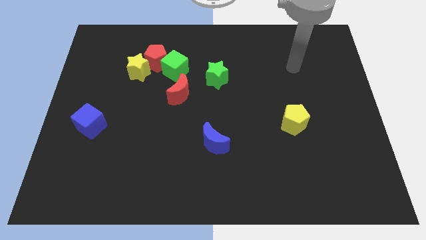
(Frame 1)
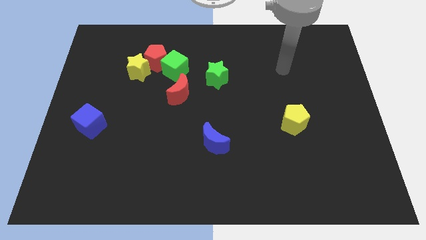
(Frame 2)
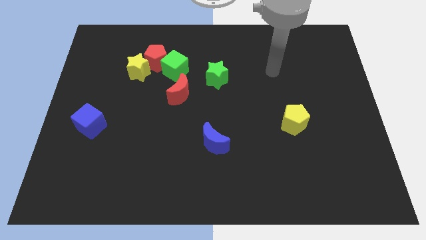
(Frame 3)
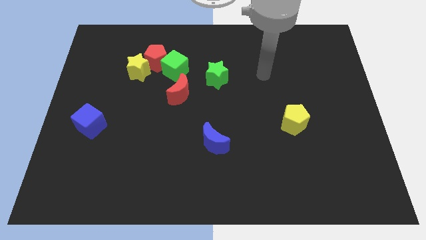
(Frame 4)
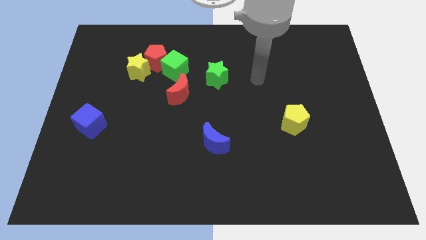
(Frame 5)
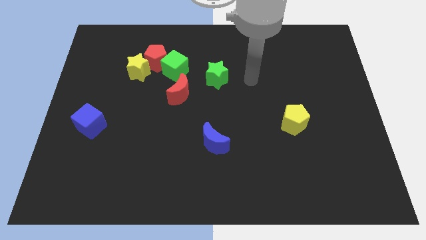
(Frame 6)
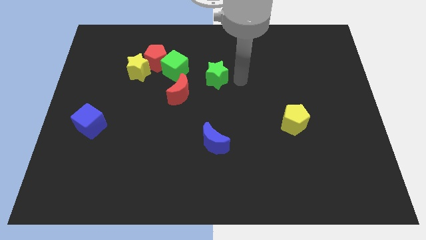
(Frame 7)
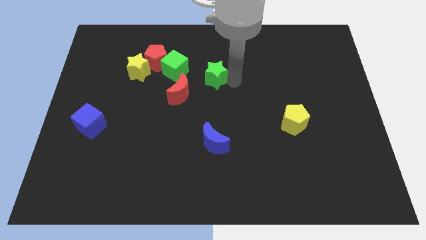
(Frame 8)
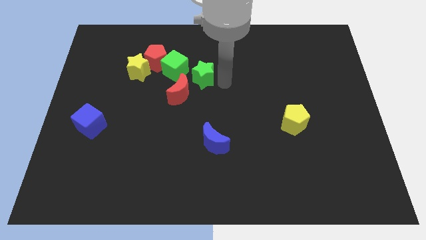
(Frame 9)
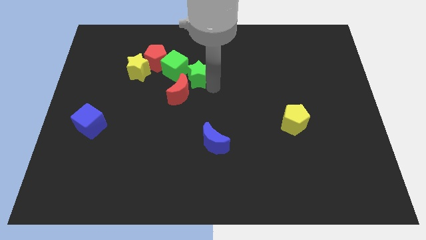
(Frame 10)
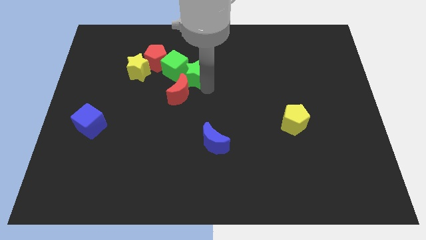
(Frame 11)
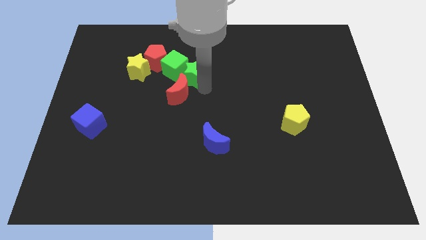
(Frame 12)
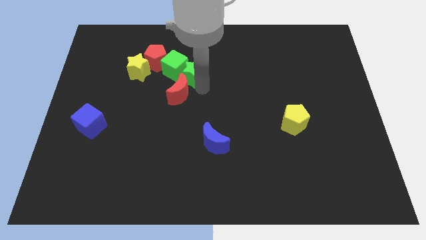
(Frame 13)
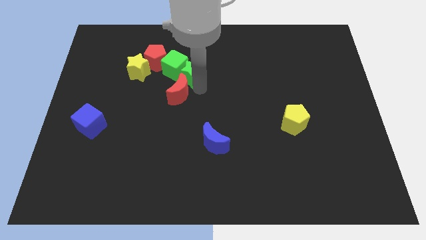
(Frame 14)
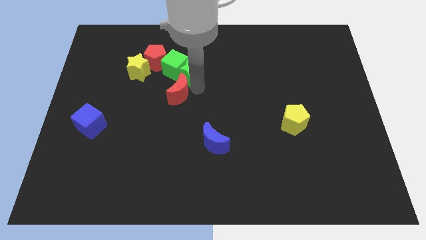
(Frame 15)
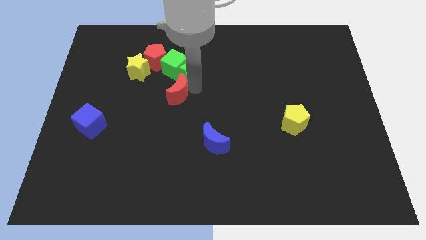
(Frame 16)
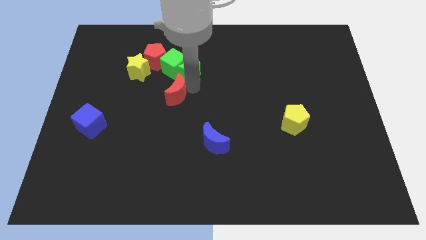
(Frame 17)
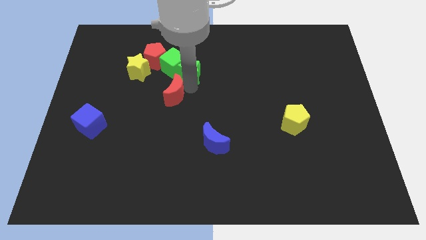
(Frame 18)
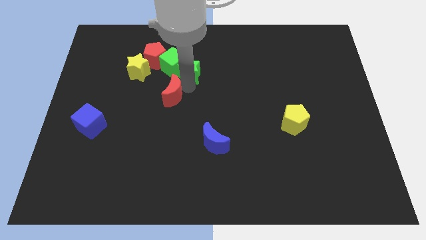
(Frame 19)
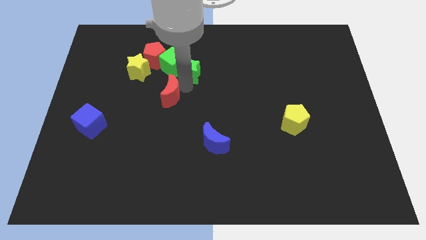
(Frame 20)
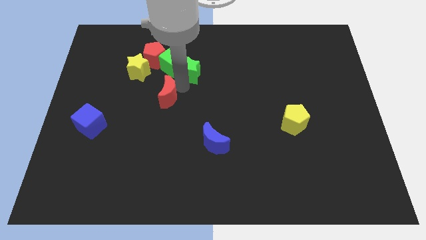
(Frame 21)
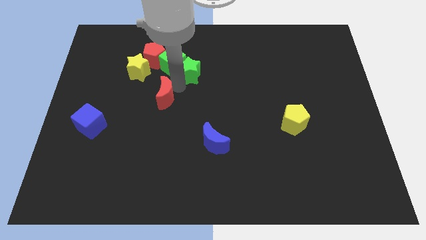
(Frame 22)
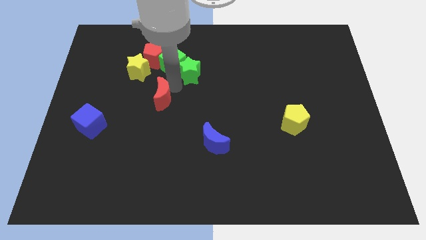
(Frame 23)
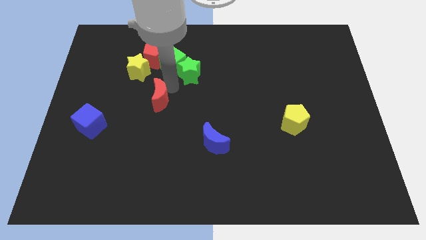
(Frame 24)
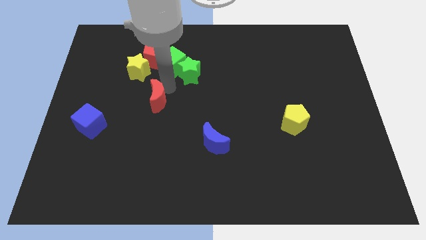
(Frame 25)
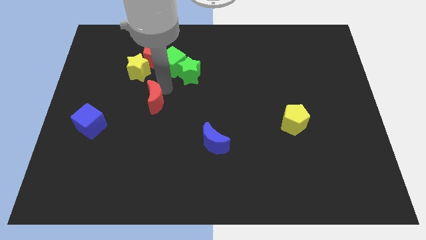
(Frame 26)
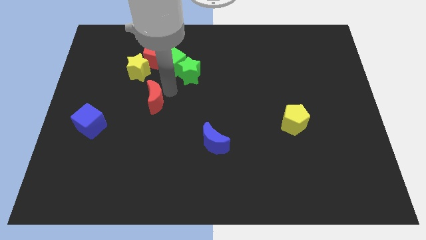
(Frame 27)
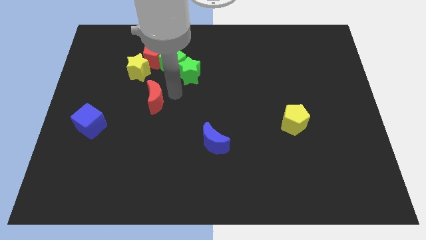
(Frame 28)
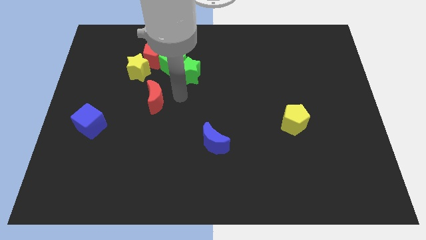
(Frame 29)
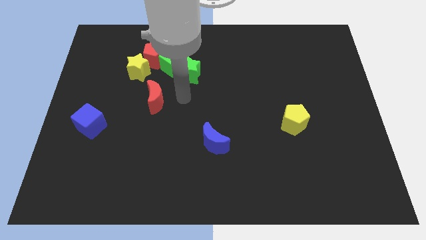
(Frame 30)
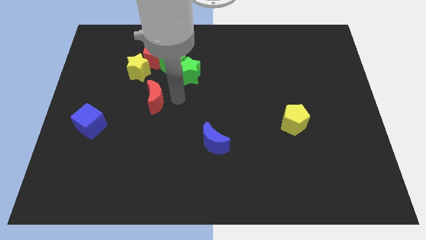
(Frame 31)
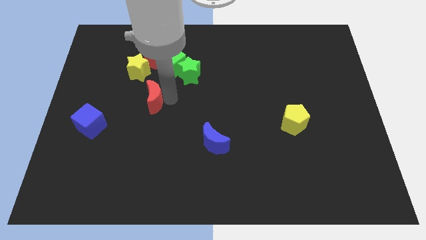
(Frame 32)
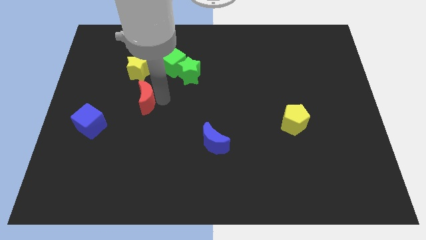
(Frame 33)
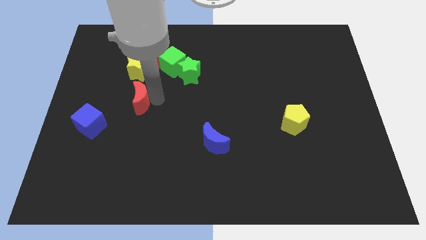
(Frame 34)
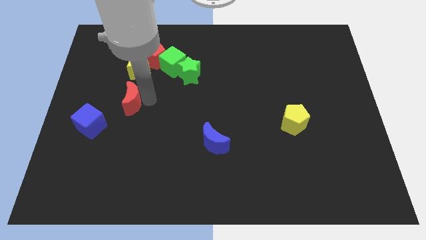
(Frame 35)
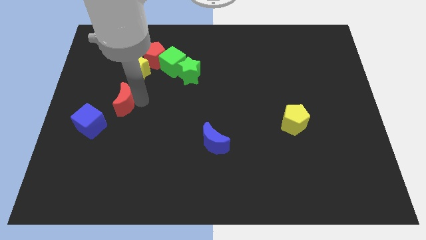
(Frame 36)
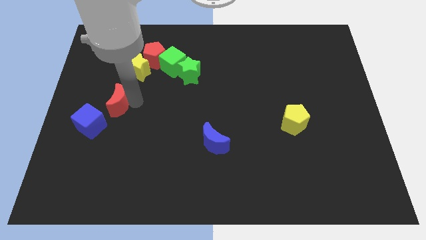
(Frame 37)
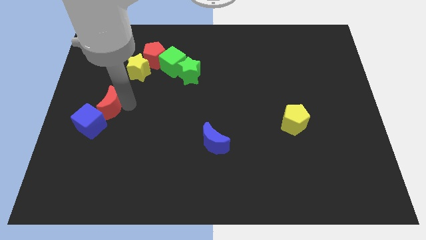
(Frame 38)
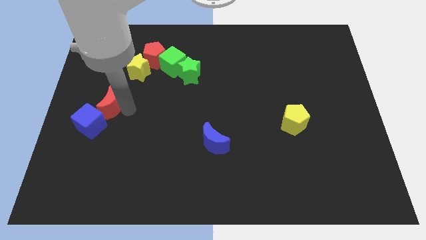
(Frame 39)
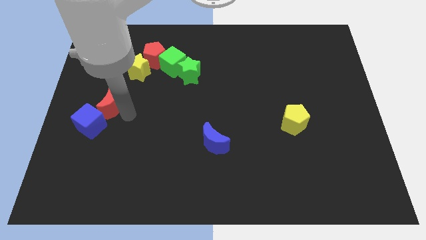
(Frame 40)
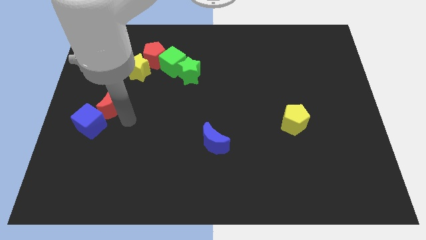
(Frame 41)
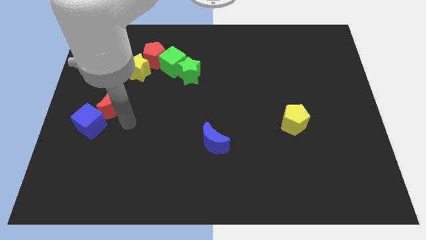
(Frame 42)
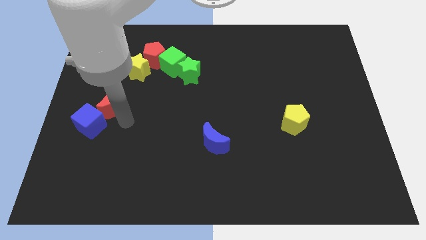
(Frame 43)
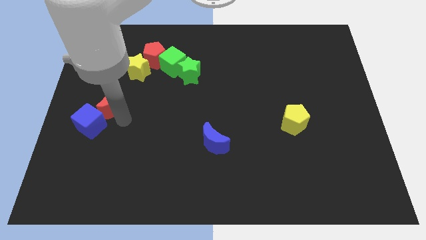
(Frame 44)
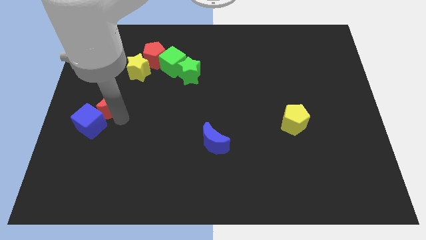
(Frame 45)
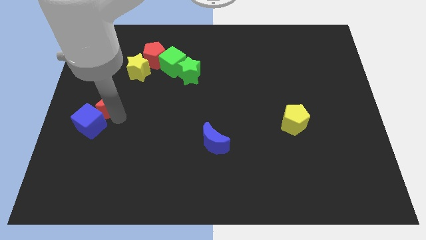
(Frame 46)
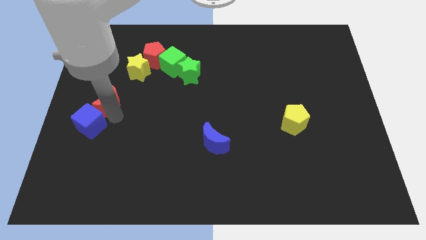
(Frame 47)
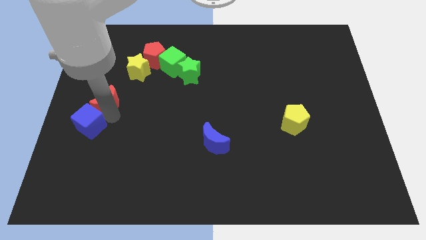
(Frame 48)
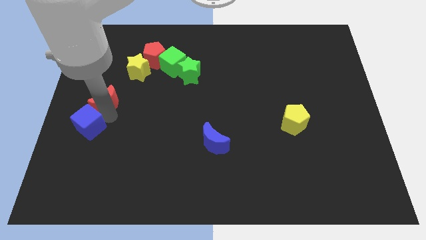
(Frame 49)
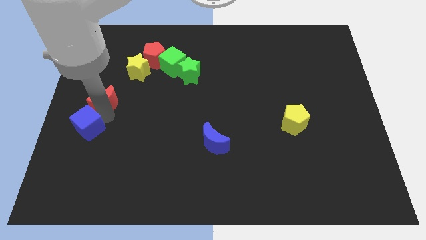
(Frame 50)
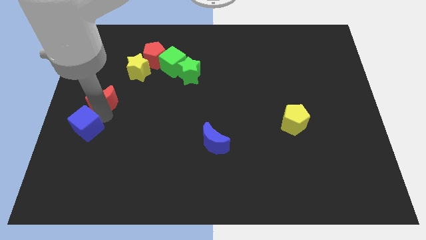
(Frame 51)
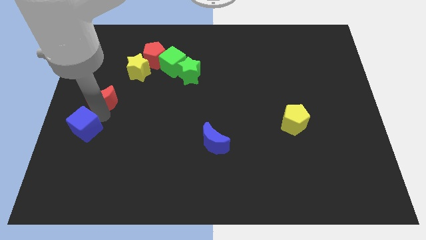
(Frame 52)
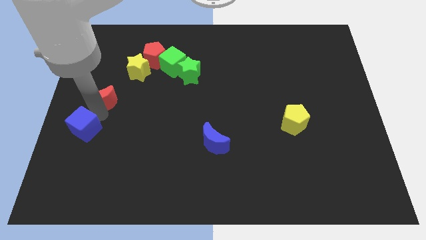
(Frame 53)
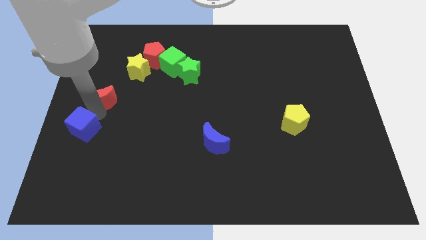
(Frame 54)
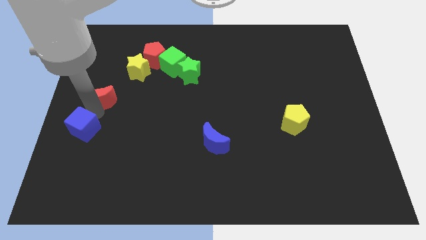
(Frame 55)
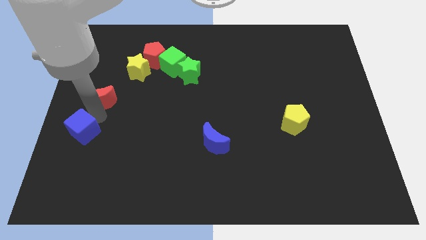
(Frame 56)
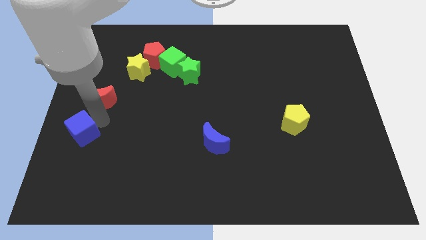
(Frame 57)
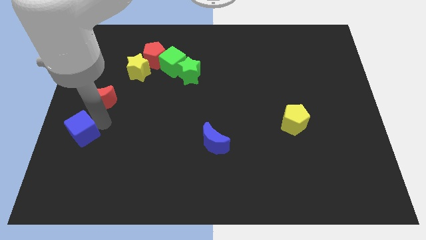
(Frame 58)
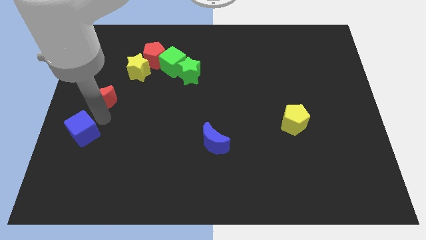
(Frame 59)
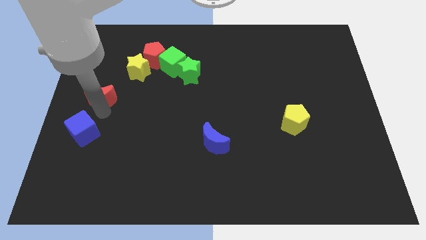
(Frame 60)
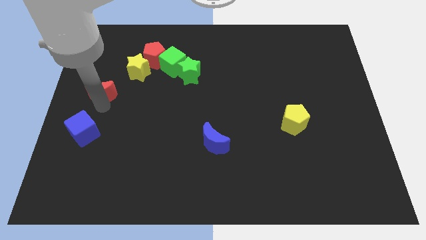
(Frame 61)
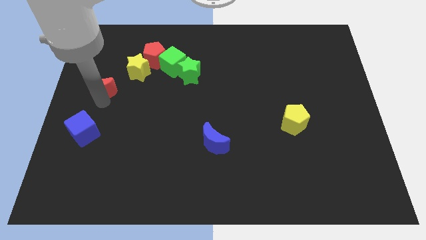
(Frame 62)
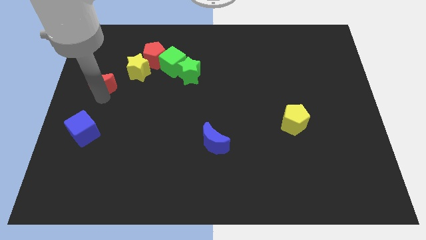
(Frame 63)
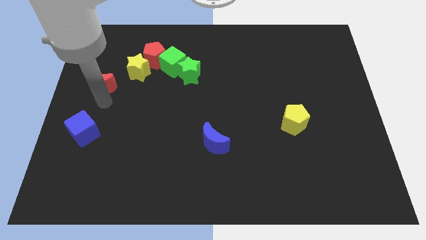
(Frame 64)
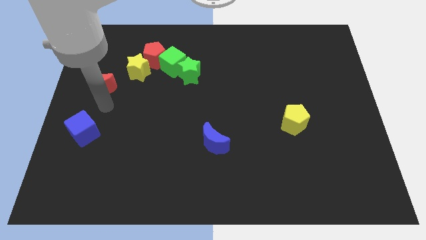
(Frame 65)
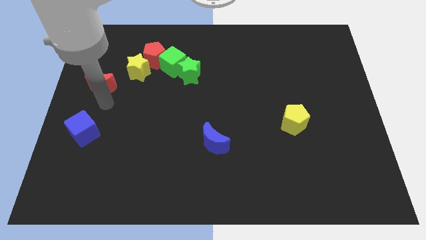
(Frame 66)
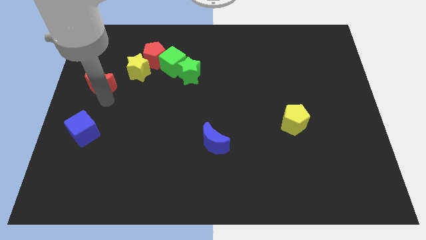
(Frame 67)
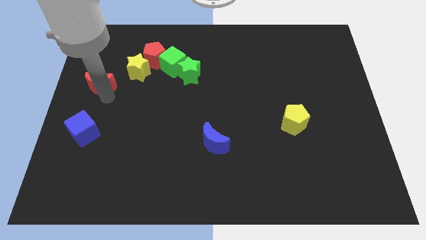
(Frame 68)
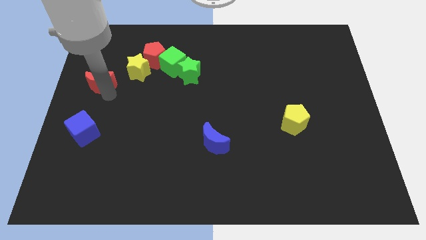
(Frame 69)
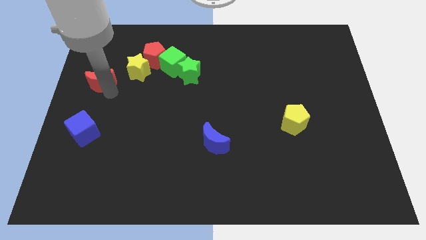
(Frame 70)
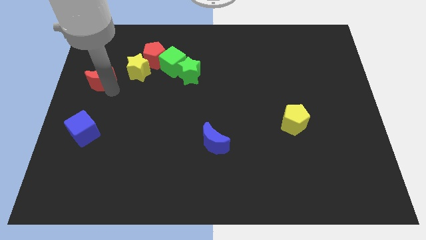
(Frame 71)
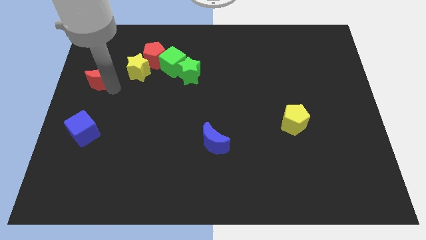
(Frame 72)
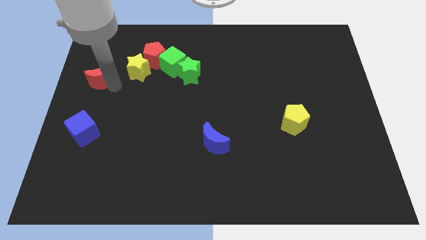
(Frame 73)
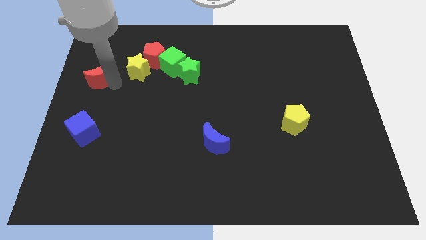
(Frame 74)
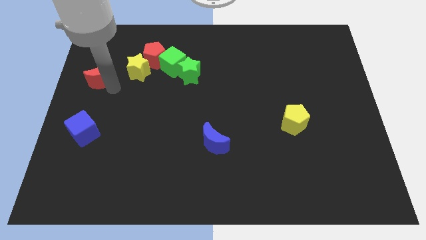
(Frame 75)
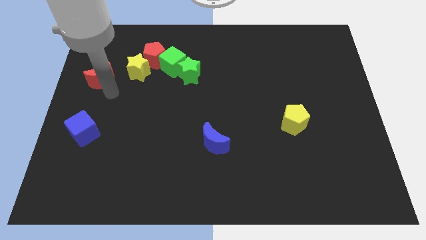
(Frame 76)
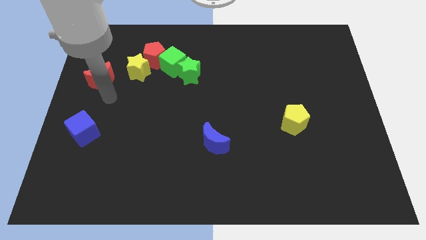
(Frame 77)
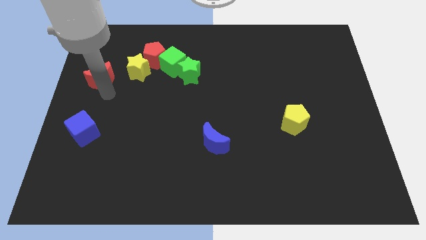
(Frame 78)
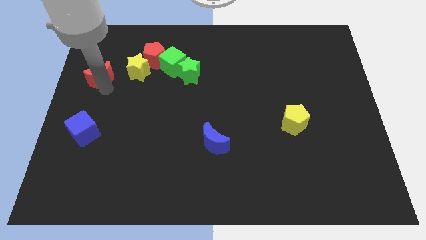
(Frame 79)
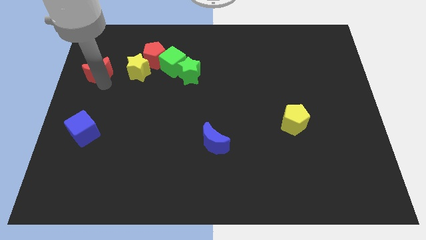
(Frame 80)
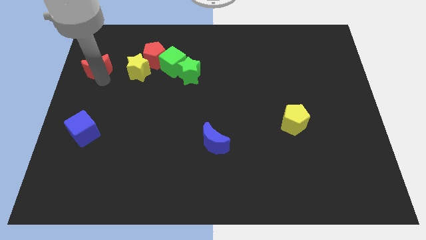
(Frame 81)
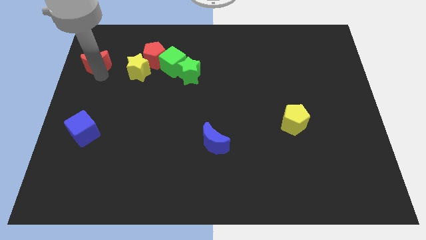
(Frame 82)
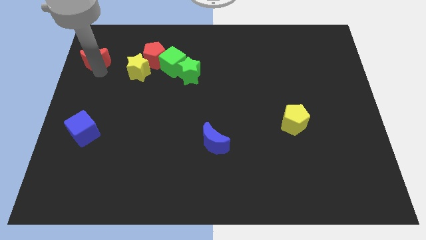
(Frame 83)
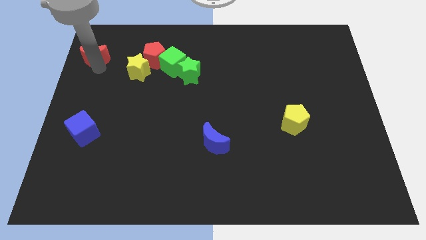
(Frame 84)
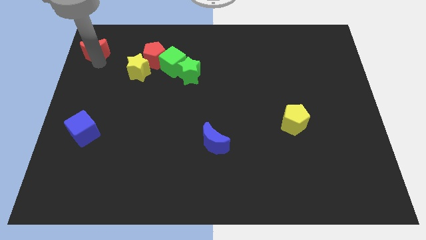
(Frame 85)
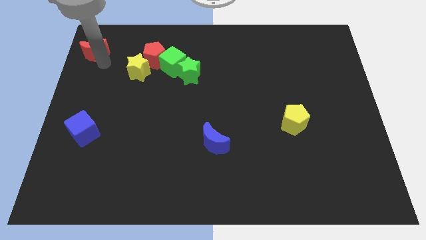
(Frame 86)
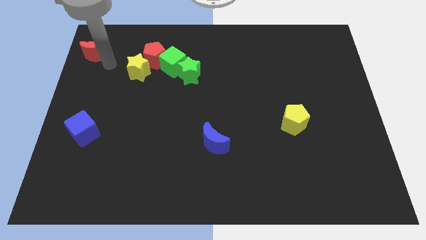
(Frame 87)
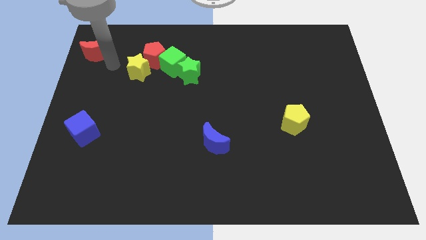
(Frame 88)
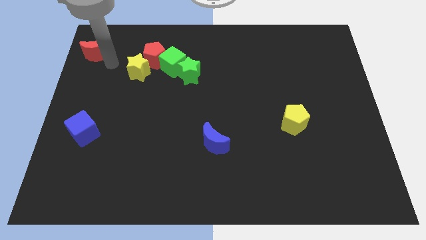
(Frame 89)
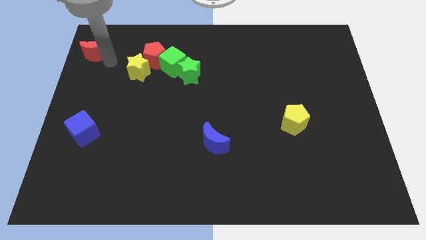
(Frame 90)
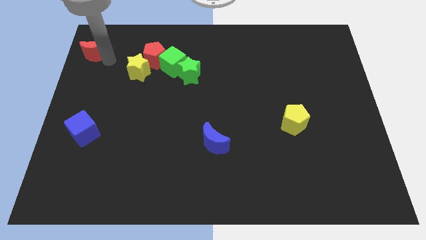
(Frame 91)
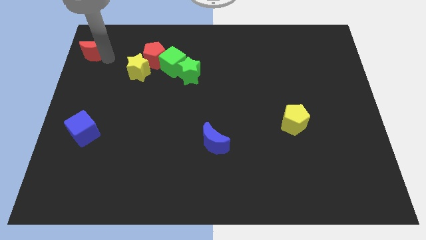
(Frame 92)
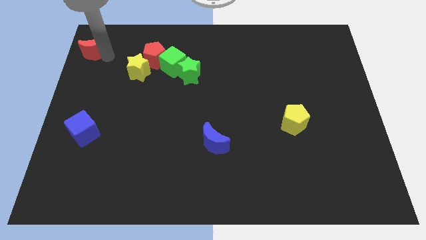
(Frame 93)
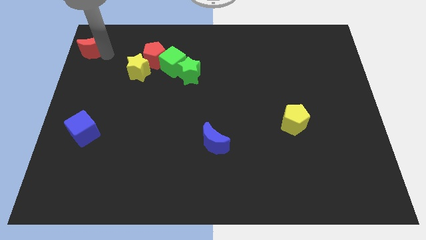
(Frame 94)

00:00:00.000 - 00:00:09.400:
put the red moon to the top left
